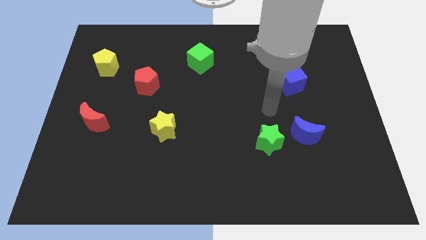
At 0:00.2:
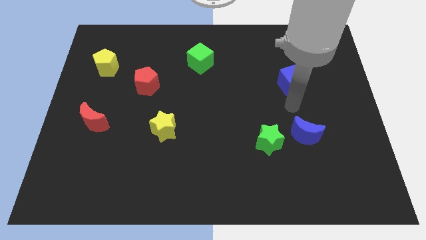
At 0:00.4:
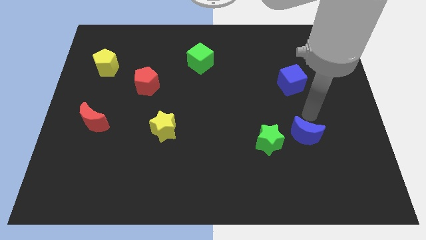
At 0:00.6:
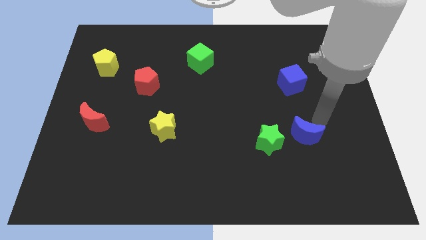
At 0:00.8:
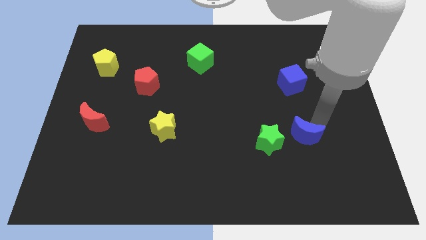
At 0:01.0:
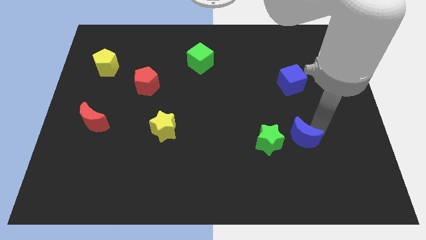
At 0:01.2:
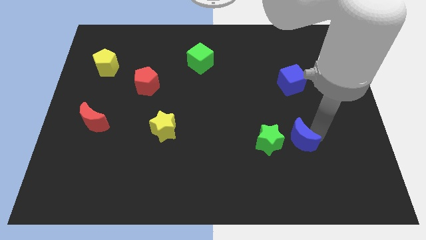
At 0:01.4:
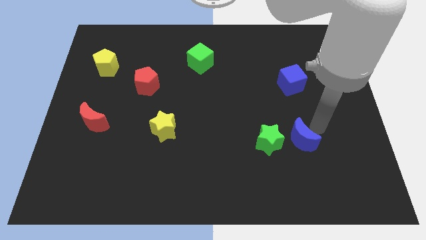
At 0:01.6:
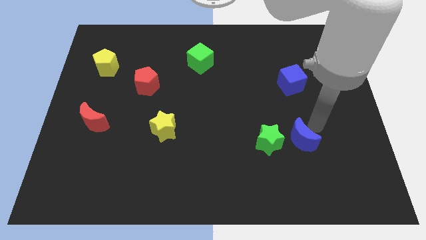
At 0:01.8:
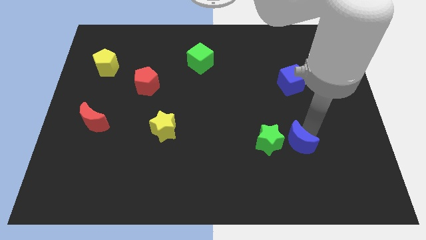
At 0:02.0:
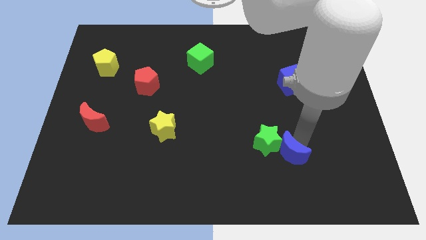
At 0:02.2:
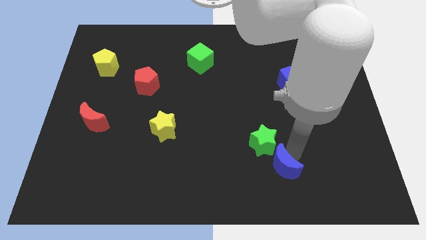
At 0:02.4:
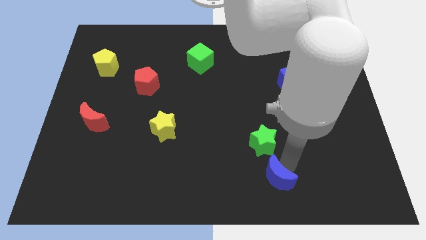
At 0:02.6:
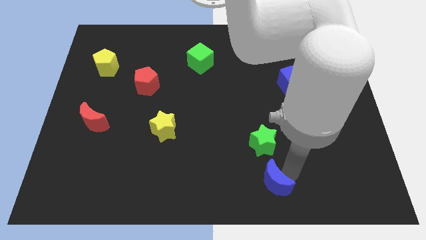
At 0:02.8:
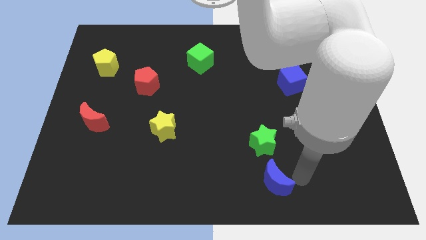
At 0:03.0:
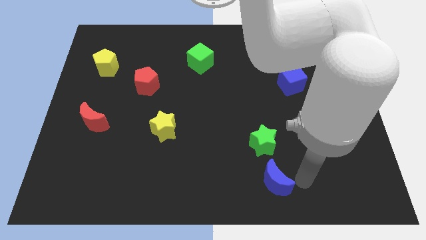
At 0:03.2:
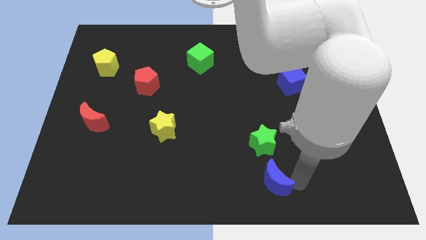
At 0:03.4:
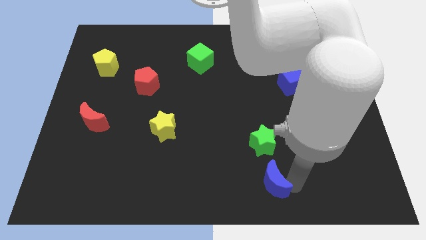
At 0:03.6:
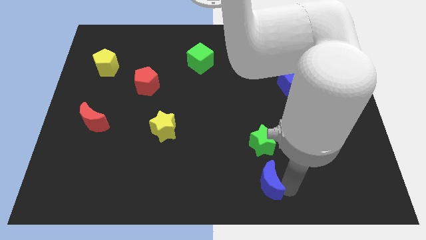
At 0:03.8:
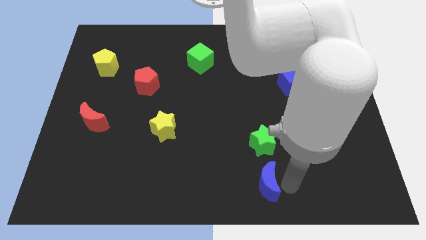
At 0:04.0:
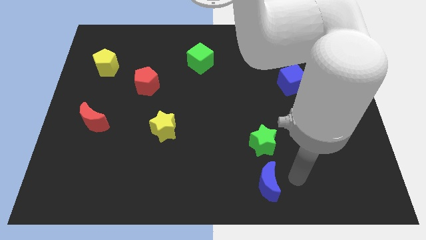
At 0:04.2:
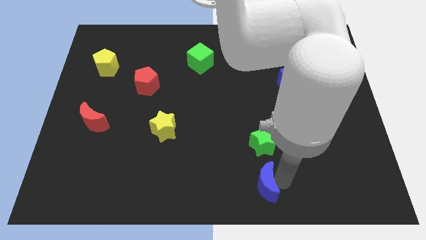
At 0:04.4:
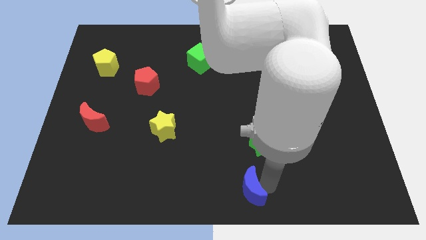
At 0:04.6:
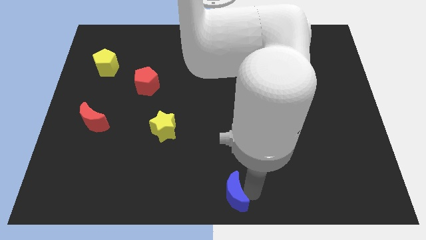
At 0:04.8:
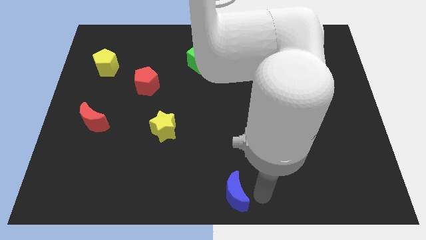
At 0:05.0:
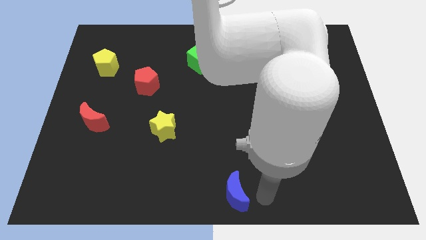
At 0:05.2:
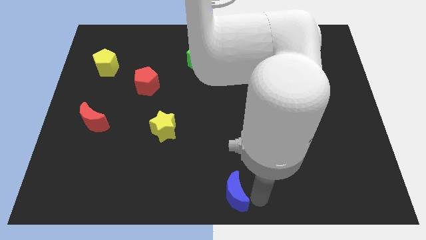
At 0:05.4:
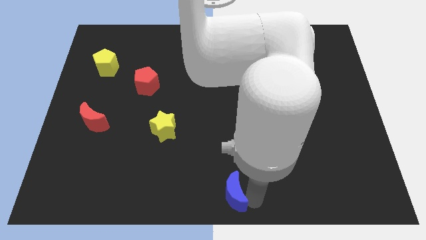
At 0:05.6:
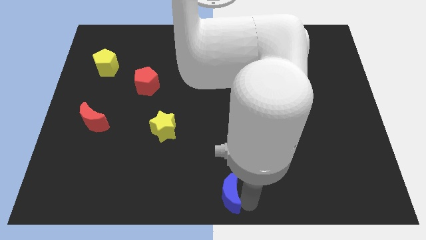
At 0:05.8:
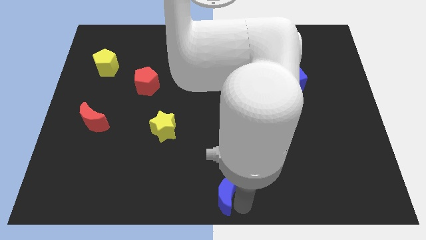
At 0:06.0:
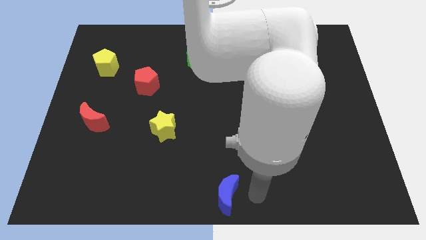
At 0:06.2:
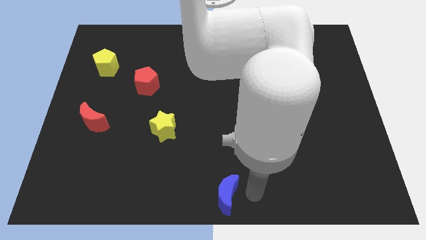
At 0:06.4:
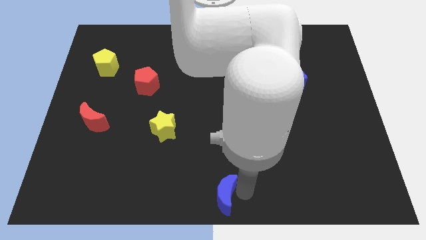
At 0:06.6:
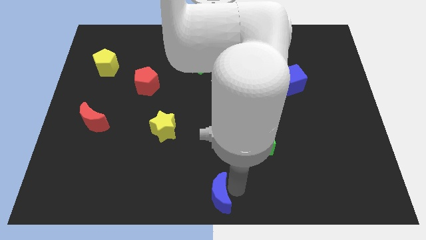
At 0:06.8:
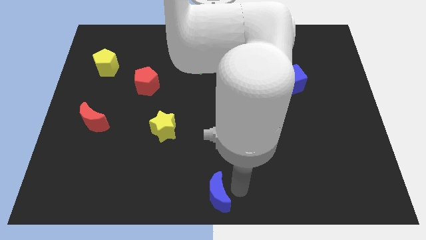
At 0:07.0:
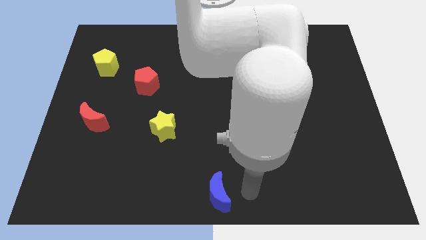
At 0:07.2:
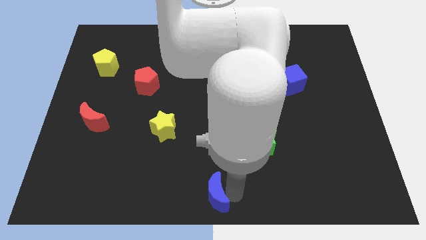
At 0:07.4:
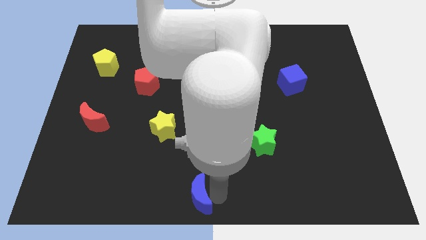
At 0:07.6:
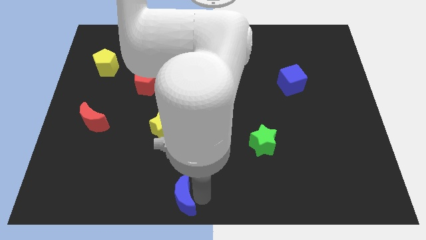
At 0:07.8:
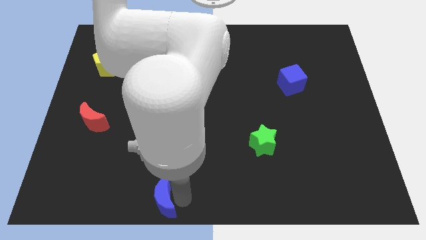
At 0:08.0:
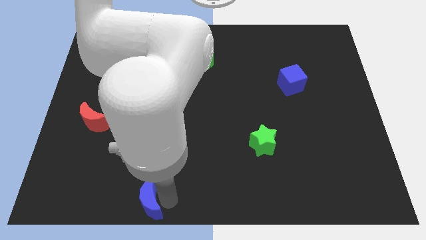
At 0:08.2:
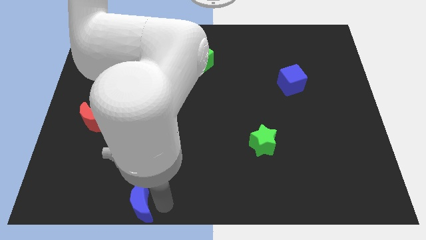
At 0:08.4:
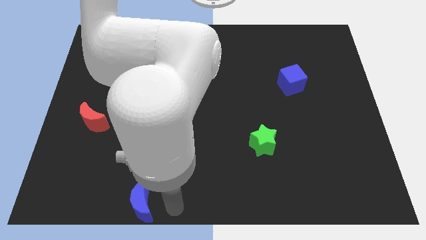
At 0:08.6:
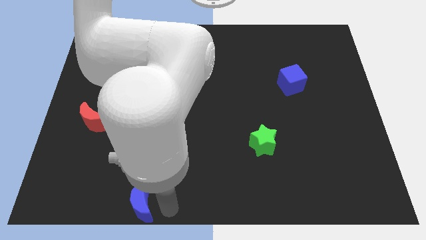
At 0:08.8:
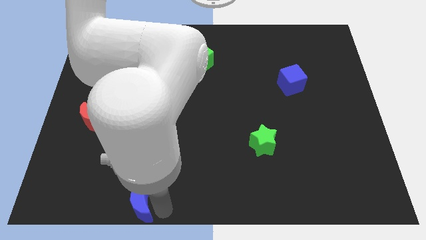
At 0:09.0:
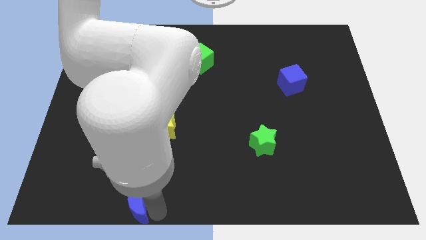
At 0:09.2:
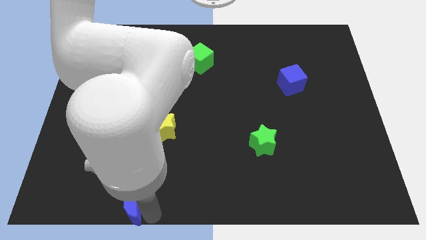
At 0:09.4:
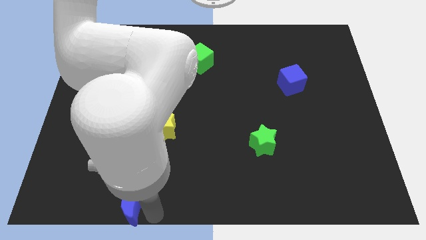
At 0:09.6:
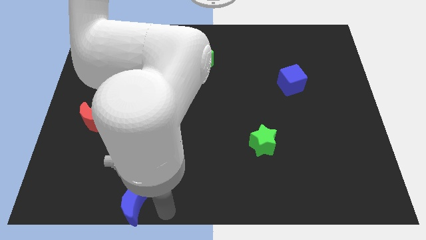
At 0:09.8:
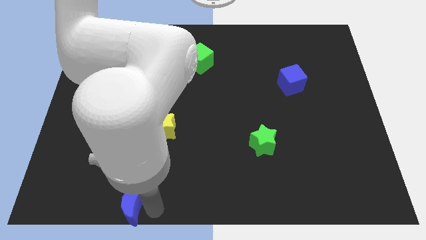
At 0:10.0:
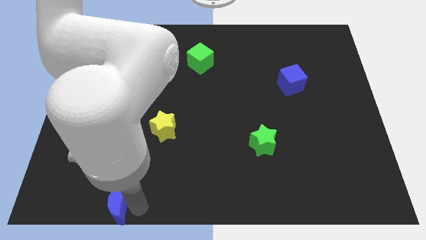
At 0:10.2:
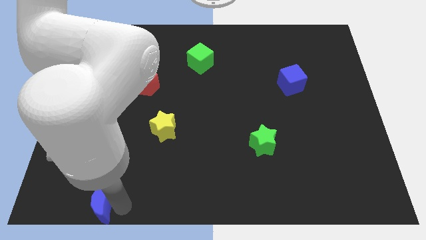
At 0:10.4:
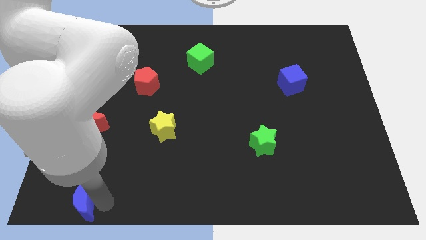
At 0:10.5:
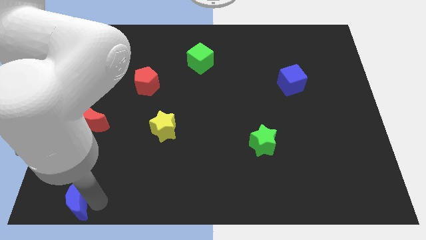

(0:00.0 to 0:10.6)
move the blue moon to the bottom left corner
